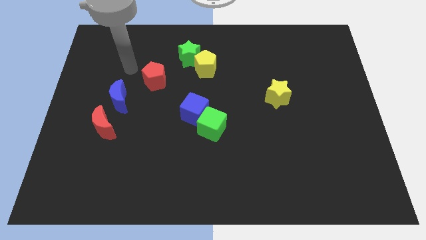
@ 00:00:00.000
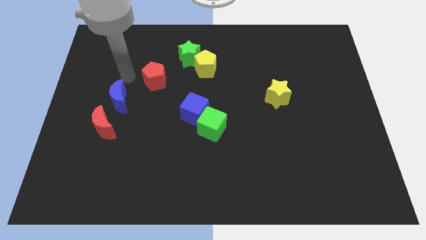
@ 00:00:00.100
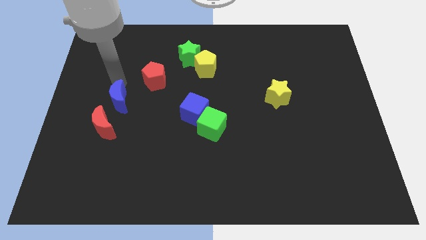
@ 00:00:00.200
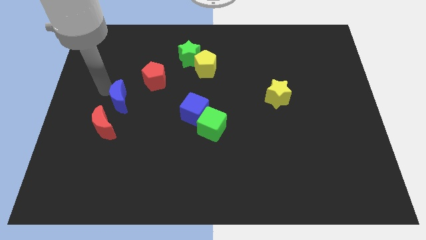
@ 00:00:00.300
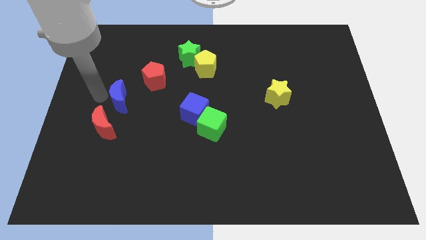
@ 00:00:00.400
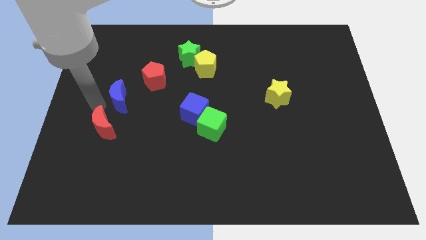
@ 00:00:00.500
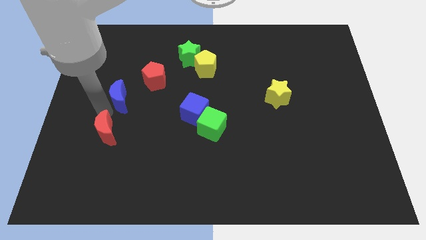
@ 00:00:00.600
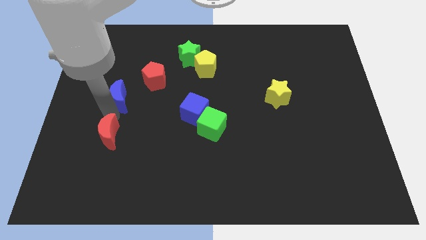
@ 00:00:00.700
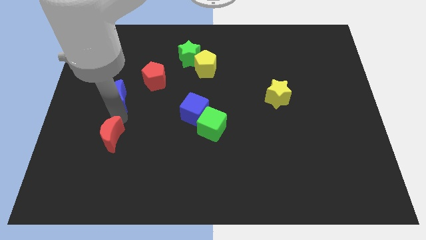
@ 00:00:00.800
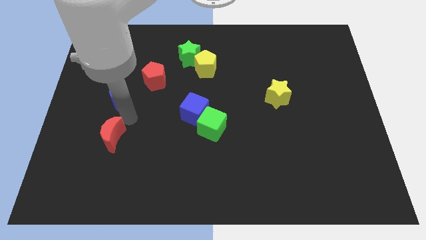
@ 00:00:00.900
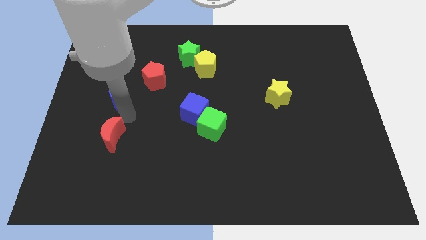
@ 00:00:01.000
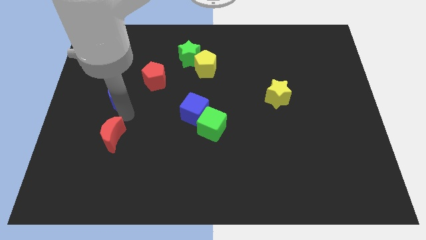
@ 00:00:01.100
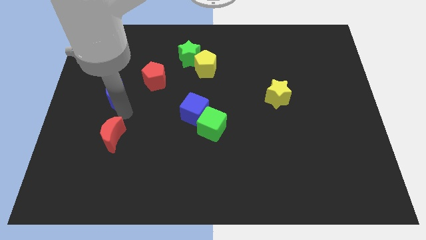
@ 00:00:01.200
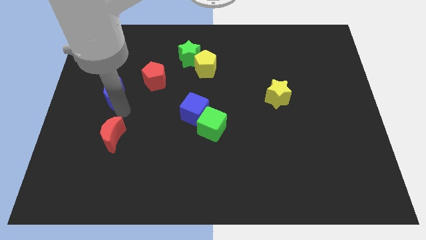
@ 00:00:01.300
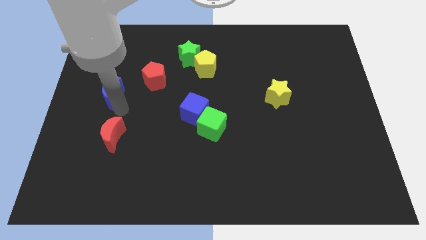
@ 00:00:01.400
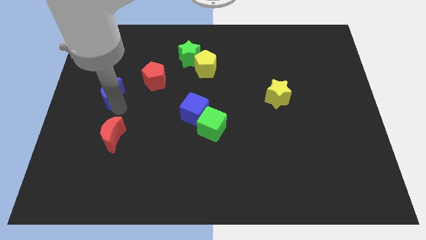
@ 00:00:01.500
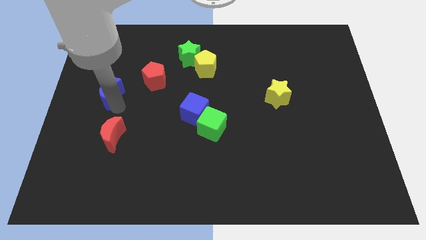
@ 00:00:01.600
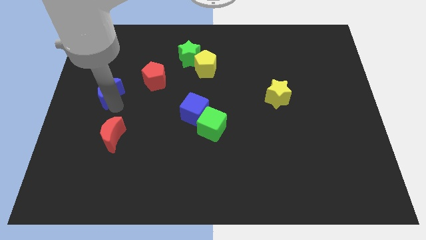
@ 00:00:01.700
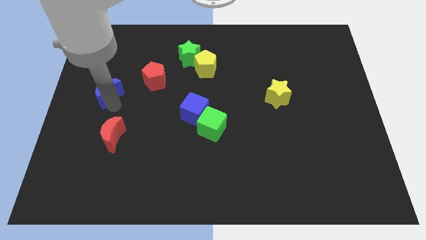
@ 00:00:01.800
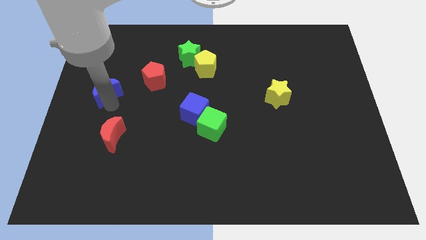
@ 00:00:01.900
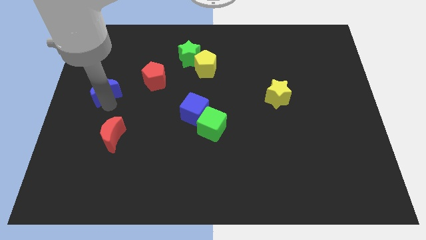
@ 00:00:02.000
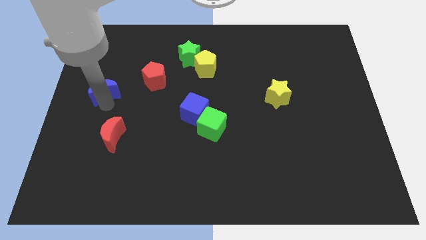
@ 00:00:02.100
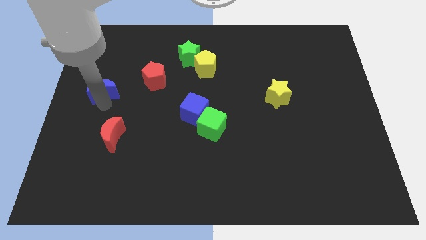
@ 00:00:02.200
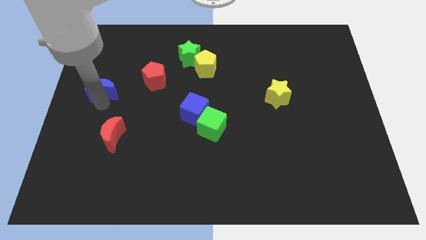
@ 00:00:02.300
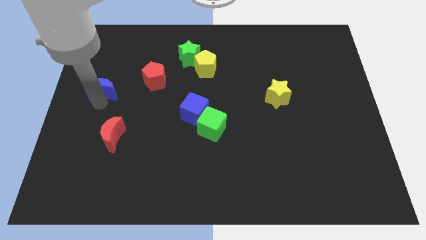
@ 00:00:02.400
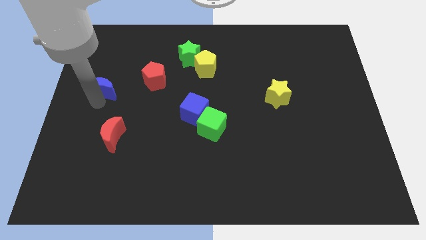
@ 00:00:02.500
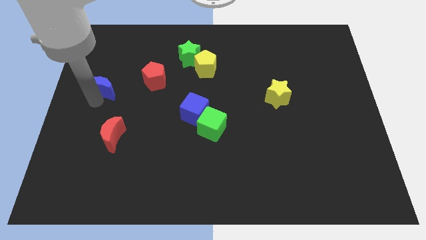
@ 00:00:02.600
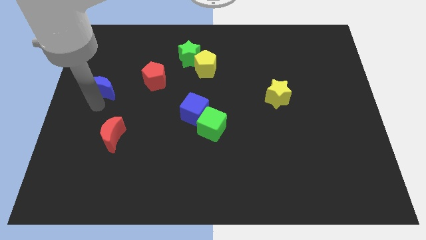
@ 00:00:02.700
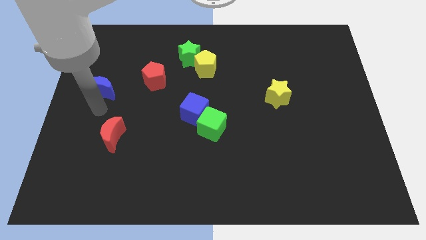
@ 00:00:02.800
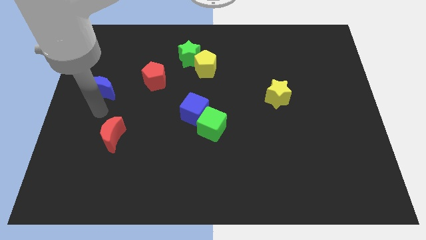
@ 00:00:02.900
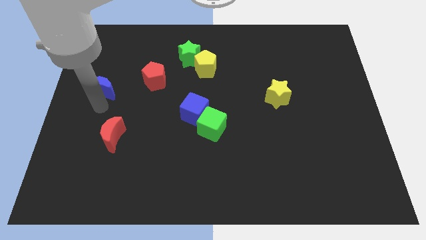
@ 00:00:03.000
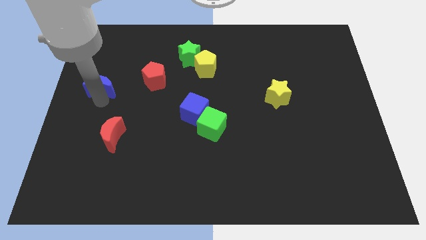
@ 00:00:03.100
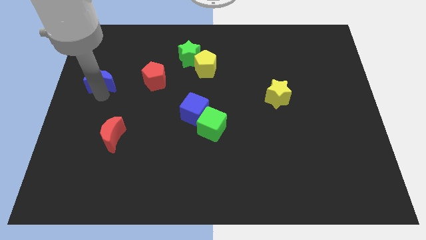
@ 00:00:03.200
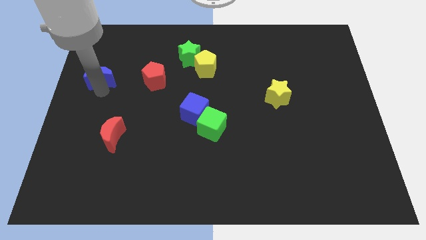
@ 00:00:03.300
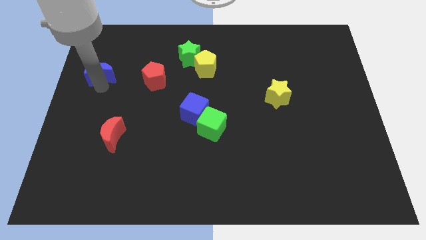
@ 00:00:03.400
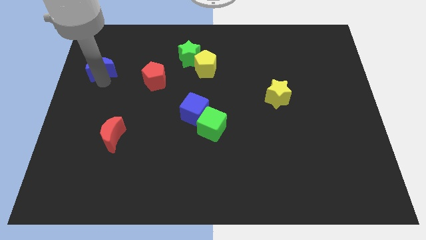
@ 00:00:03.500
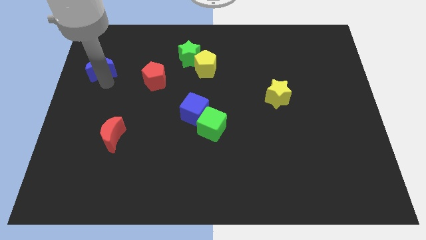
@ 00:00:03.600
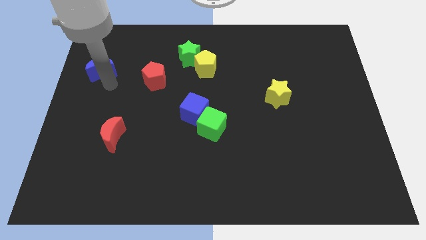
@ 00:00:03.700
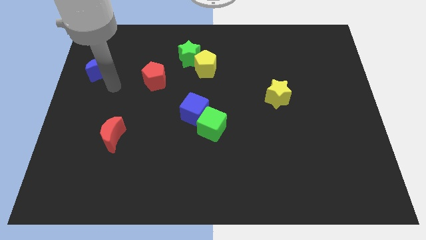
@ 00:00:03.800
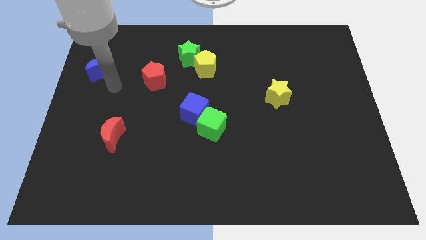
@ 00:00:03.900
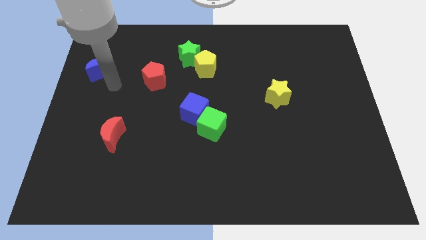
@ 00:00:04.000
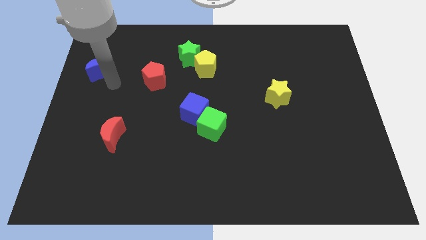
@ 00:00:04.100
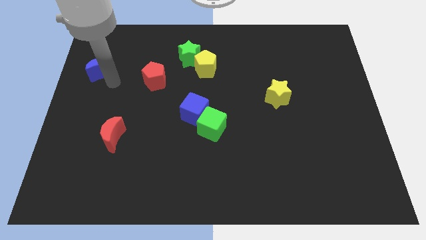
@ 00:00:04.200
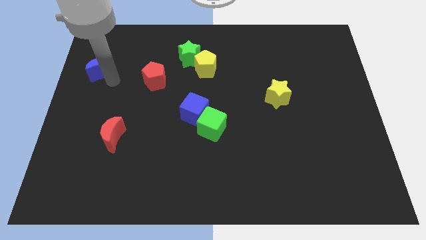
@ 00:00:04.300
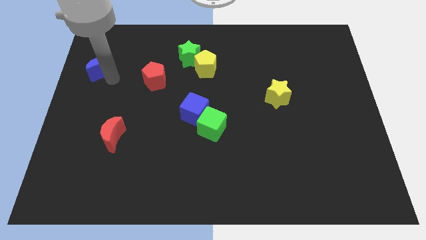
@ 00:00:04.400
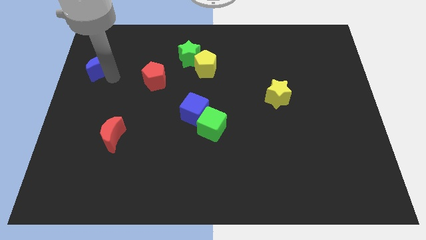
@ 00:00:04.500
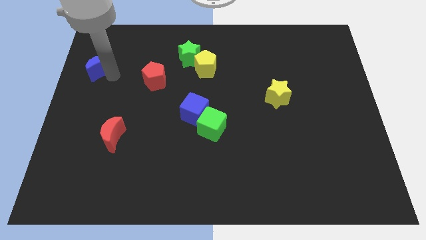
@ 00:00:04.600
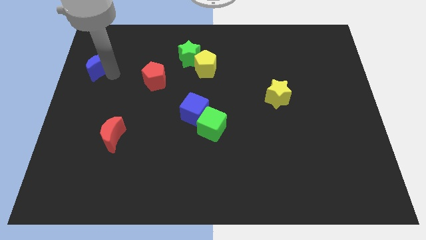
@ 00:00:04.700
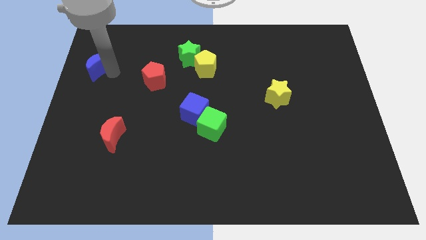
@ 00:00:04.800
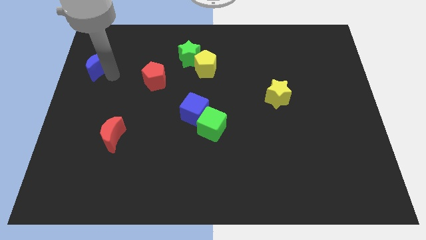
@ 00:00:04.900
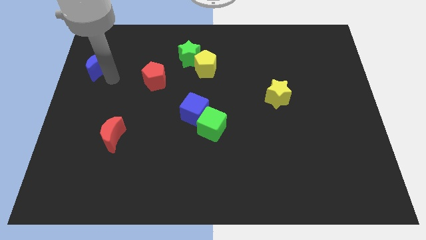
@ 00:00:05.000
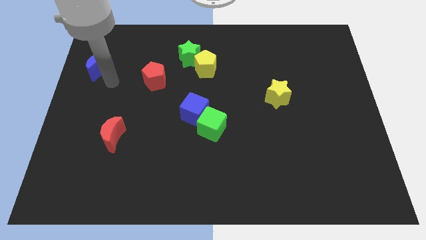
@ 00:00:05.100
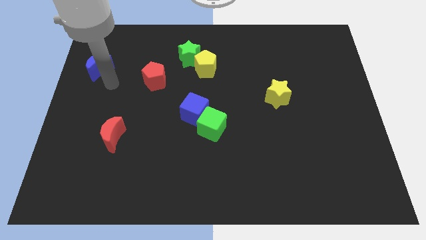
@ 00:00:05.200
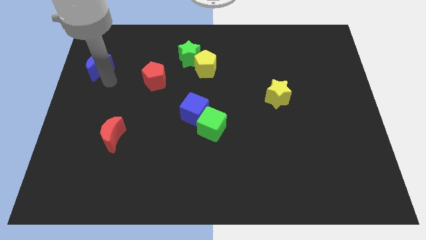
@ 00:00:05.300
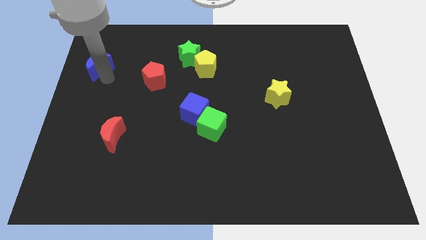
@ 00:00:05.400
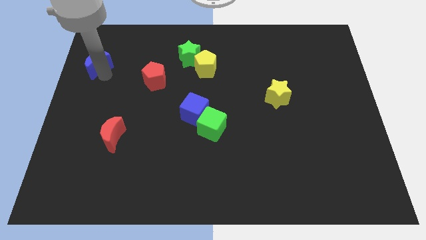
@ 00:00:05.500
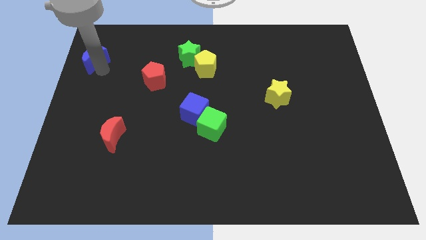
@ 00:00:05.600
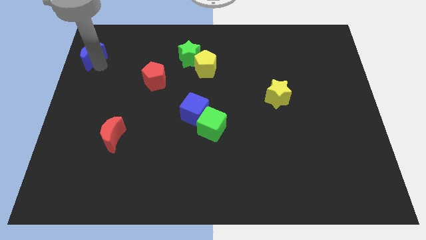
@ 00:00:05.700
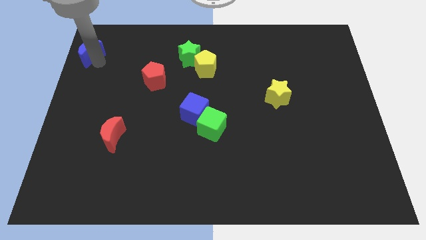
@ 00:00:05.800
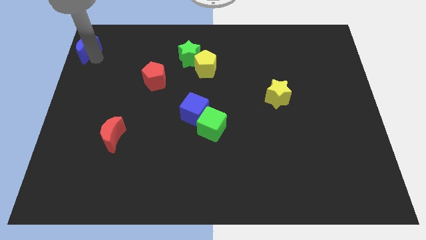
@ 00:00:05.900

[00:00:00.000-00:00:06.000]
put the blue moon to the top left
